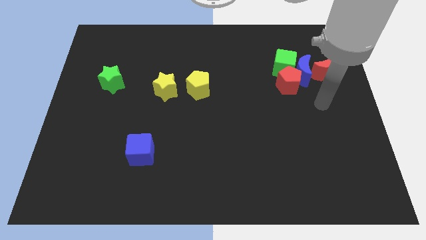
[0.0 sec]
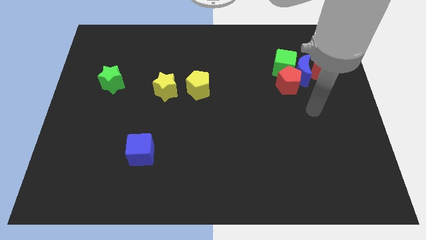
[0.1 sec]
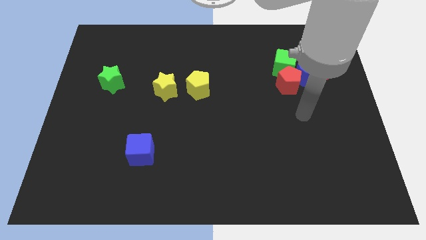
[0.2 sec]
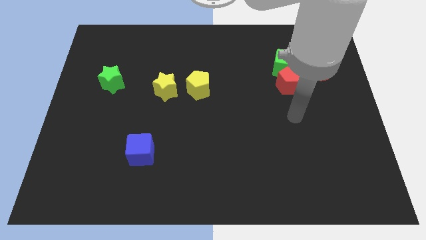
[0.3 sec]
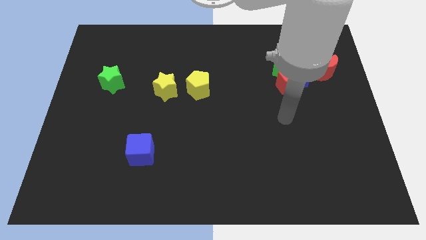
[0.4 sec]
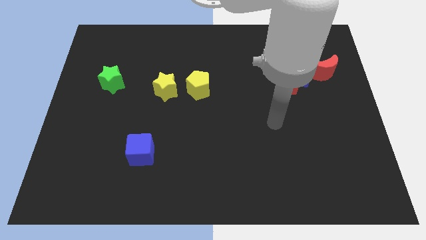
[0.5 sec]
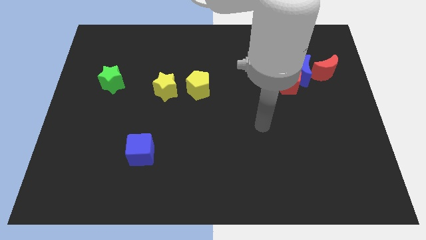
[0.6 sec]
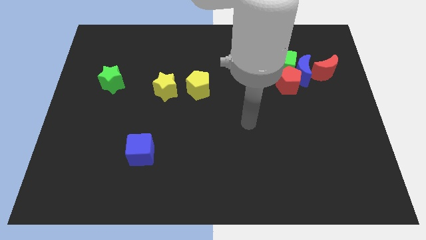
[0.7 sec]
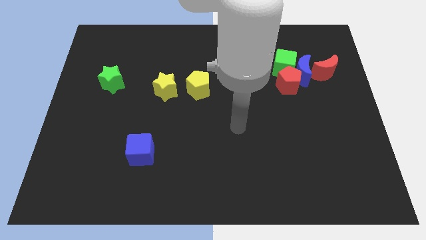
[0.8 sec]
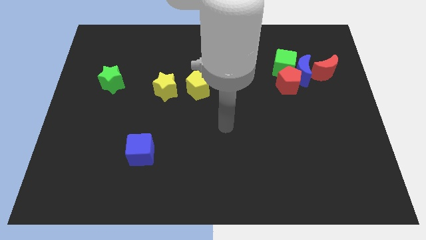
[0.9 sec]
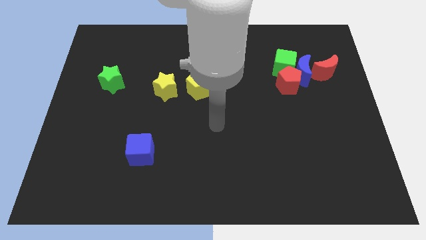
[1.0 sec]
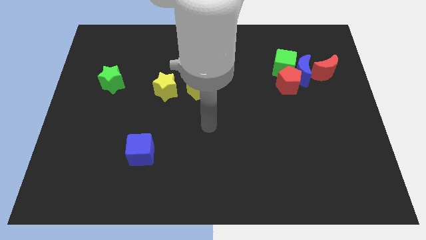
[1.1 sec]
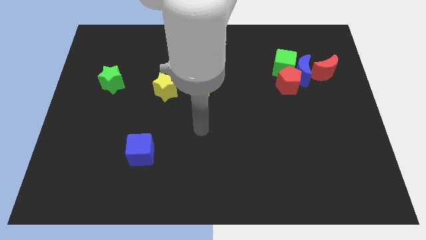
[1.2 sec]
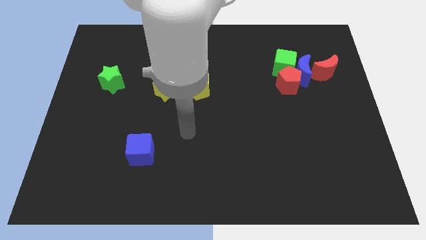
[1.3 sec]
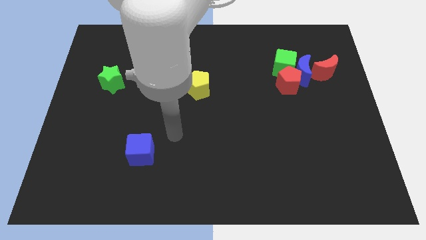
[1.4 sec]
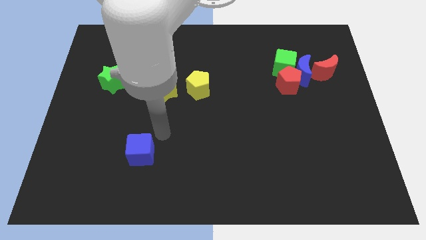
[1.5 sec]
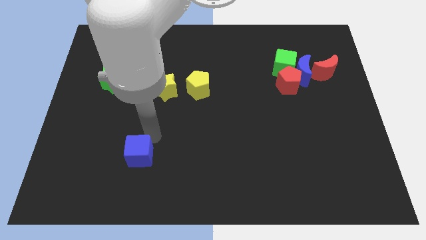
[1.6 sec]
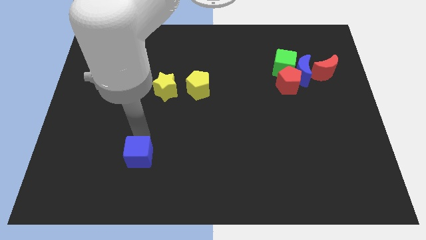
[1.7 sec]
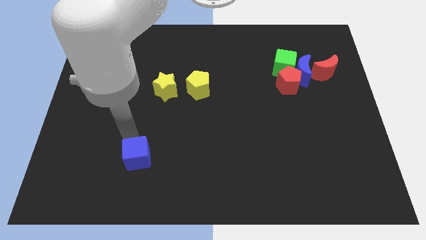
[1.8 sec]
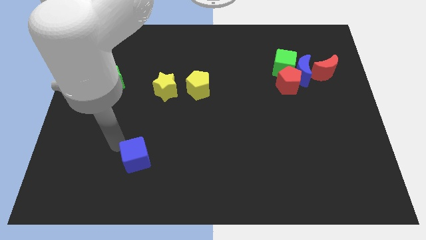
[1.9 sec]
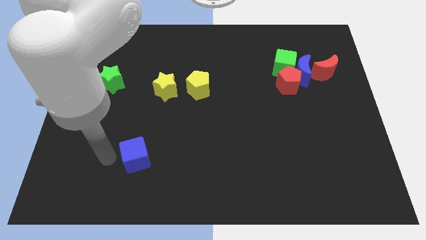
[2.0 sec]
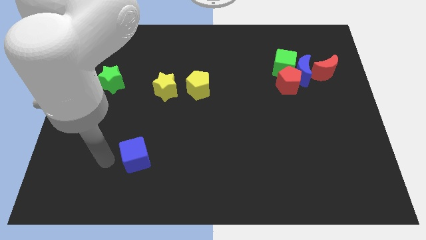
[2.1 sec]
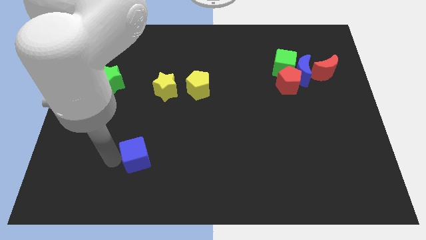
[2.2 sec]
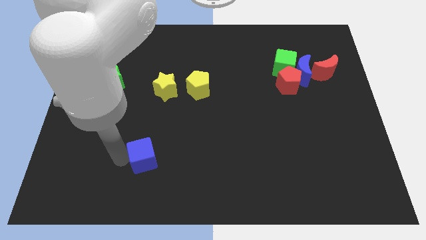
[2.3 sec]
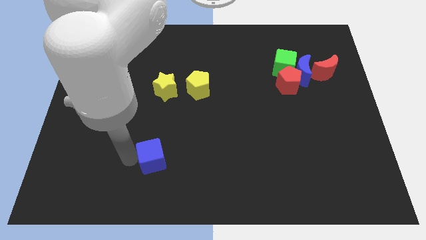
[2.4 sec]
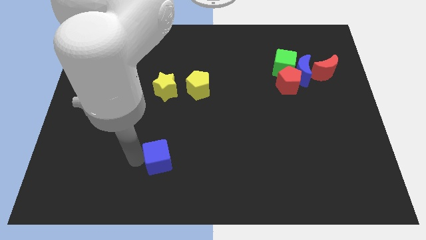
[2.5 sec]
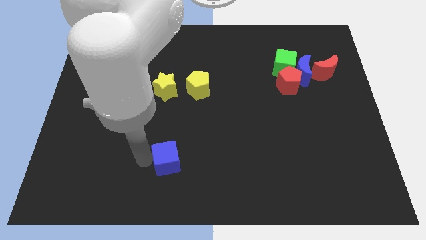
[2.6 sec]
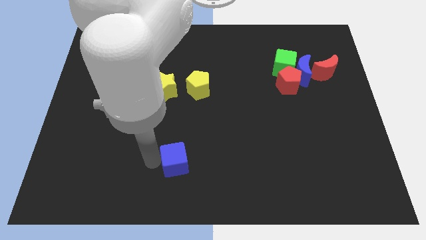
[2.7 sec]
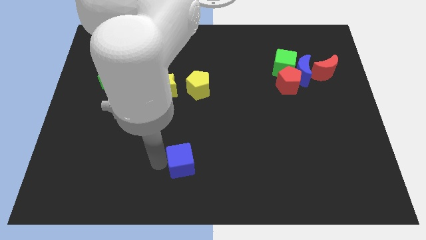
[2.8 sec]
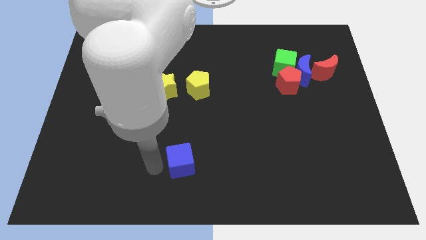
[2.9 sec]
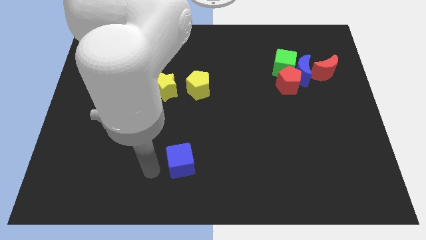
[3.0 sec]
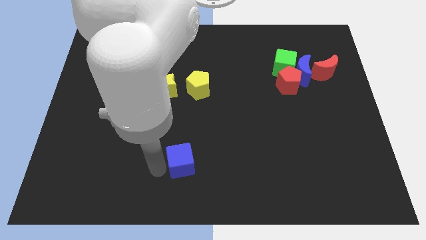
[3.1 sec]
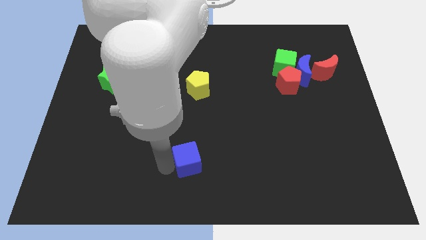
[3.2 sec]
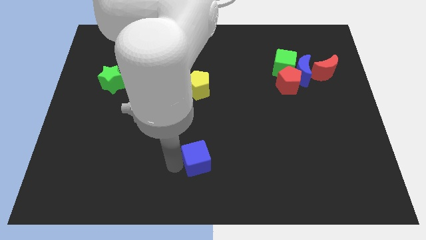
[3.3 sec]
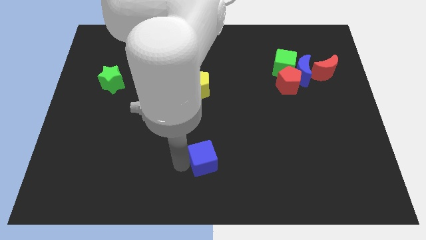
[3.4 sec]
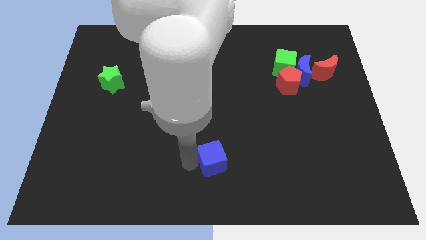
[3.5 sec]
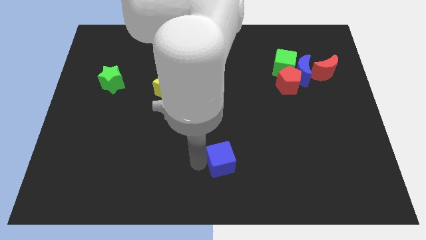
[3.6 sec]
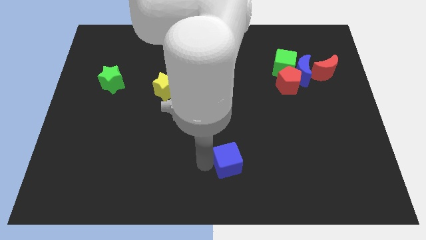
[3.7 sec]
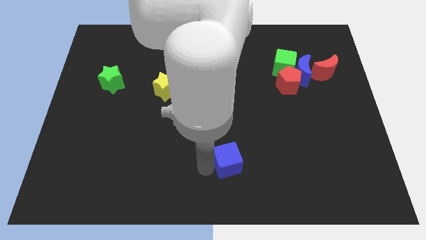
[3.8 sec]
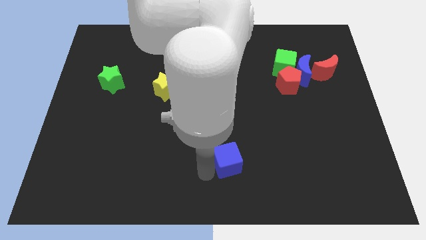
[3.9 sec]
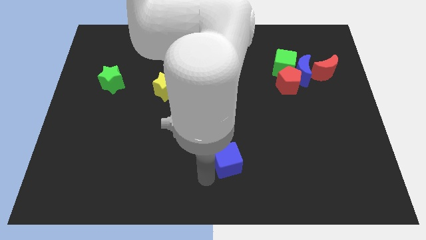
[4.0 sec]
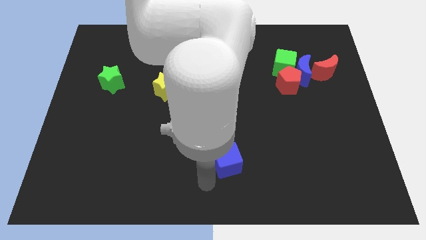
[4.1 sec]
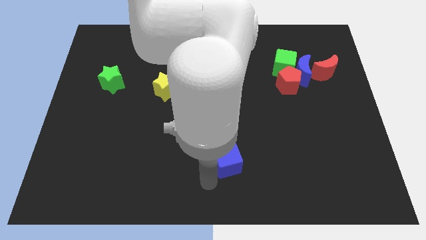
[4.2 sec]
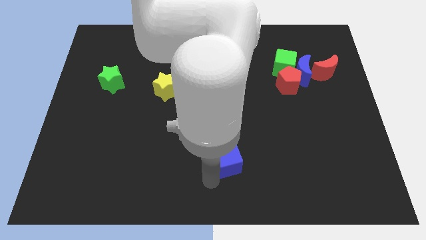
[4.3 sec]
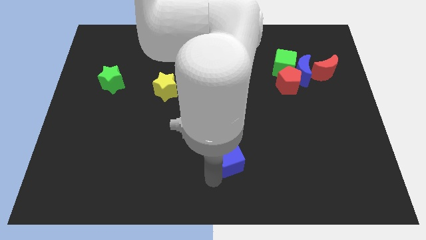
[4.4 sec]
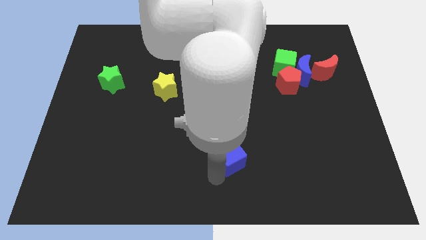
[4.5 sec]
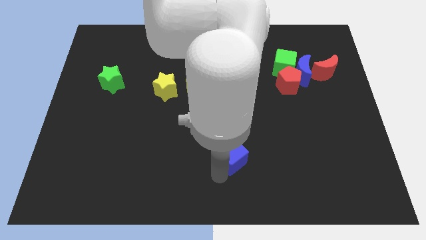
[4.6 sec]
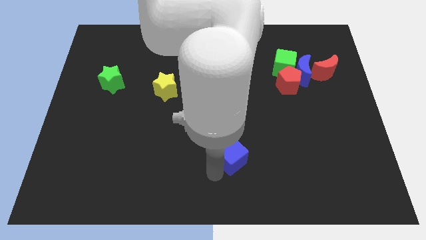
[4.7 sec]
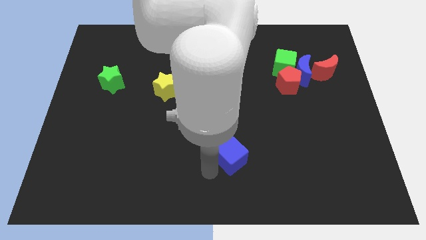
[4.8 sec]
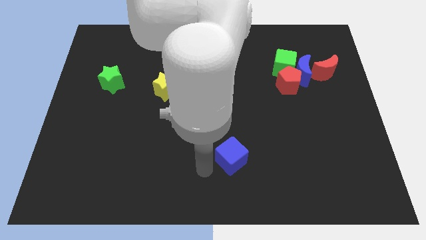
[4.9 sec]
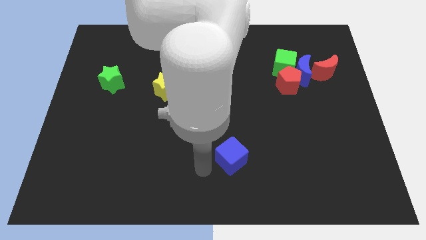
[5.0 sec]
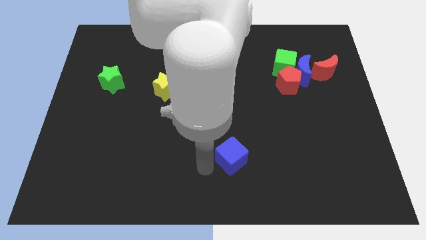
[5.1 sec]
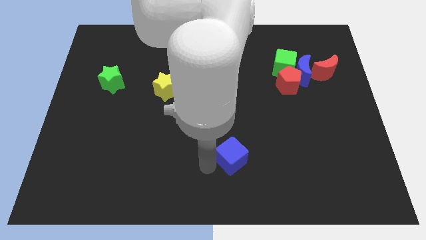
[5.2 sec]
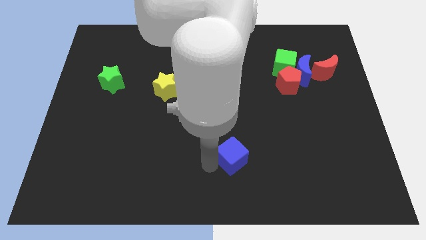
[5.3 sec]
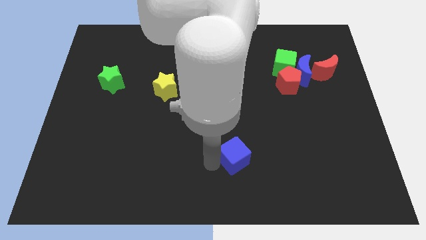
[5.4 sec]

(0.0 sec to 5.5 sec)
slide the blue cube right

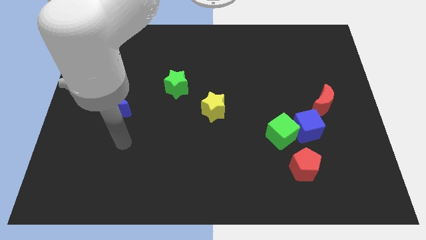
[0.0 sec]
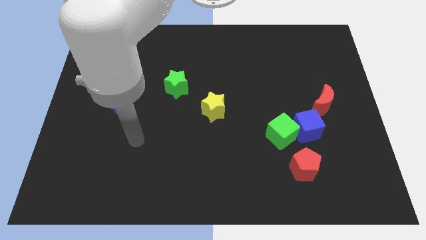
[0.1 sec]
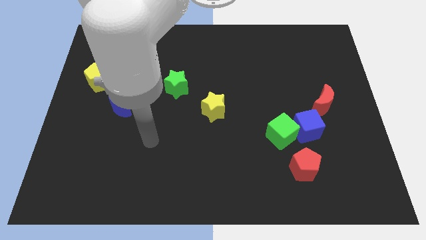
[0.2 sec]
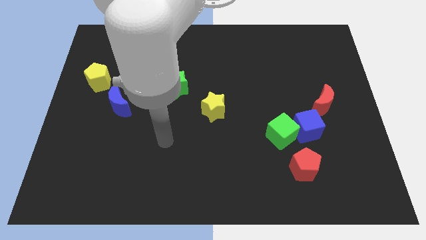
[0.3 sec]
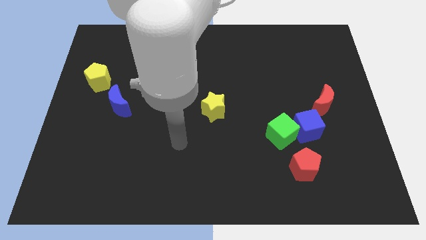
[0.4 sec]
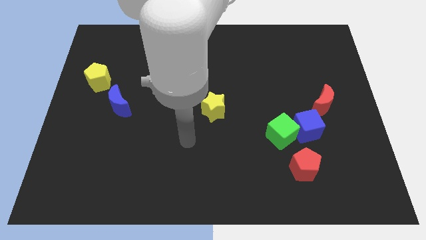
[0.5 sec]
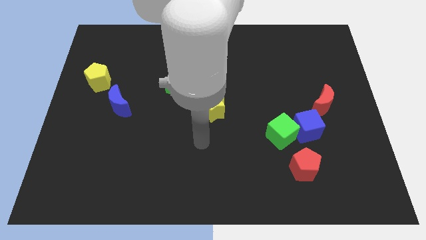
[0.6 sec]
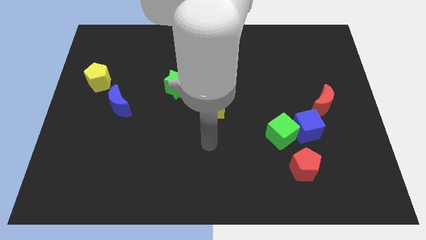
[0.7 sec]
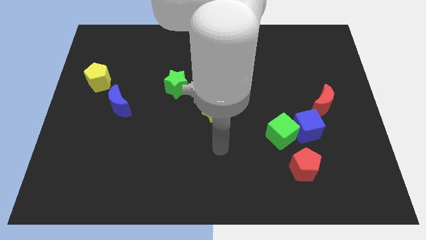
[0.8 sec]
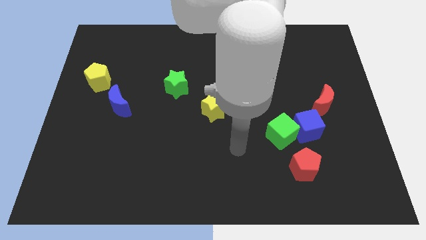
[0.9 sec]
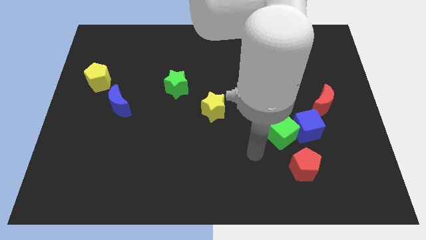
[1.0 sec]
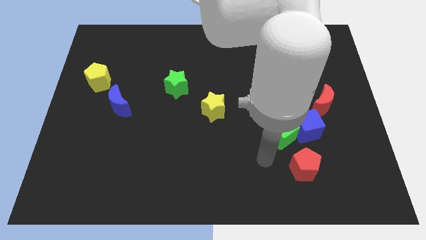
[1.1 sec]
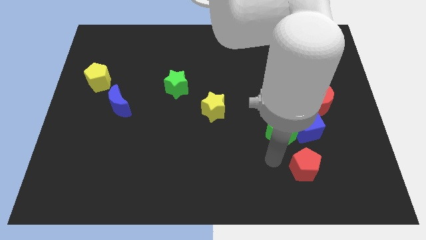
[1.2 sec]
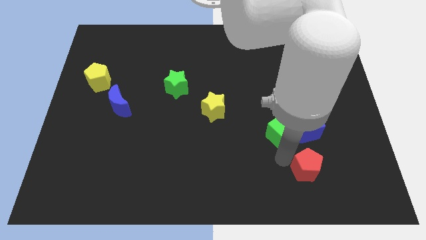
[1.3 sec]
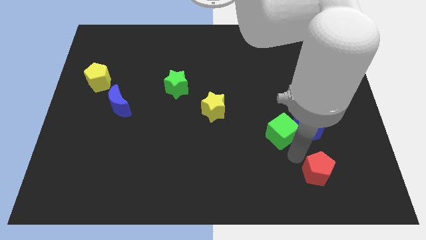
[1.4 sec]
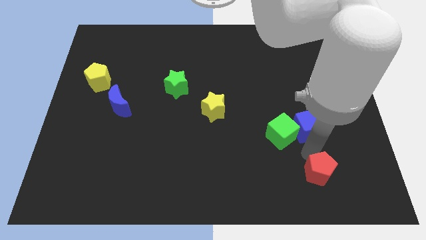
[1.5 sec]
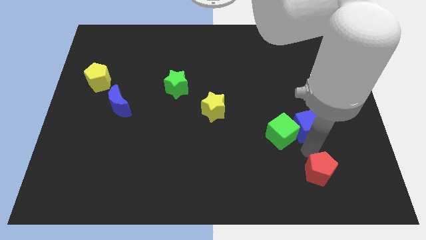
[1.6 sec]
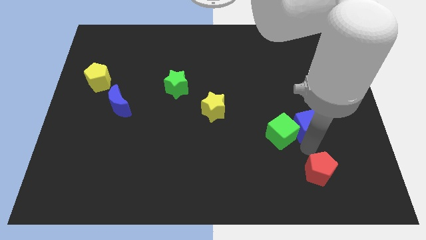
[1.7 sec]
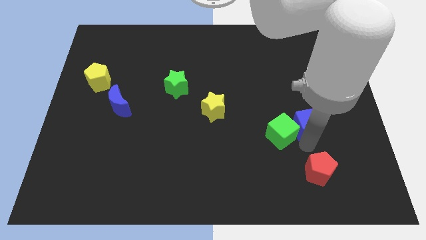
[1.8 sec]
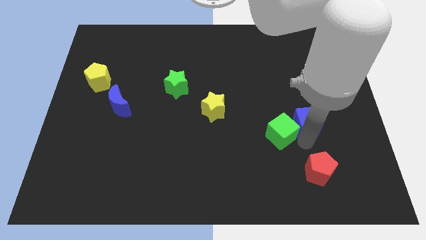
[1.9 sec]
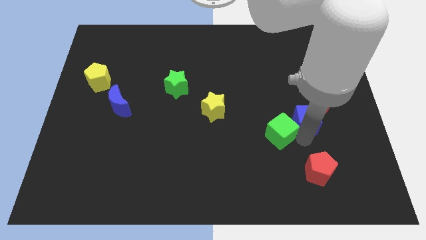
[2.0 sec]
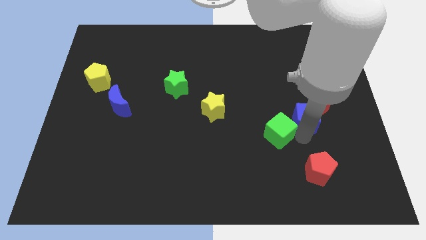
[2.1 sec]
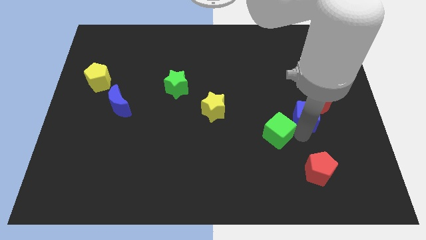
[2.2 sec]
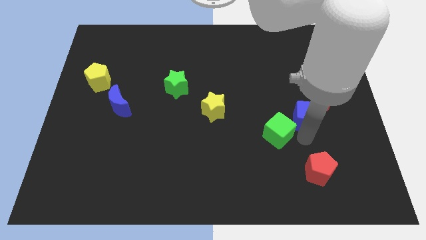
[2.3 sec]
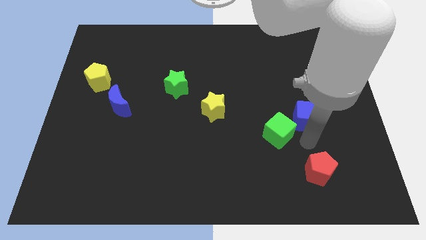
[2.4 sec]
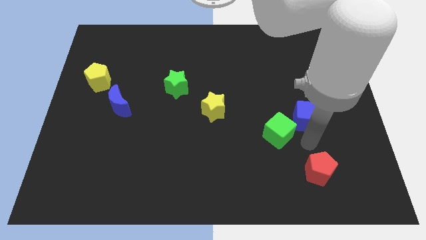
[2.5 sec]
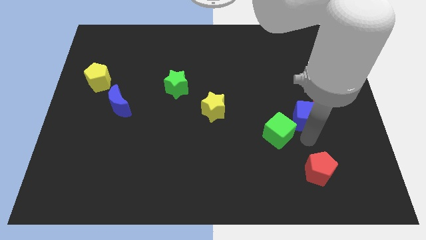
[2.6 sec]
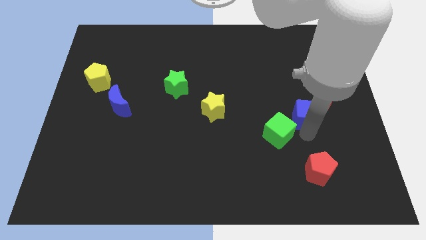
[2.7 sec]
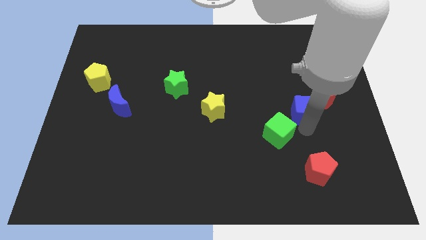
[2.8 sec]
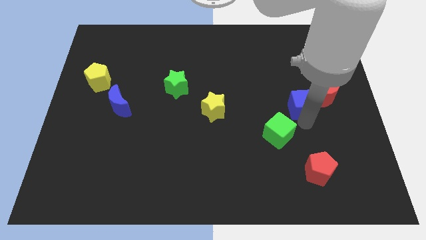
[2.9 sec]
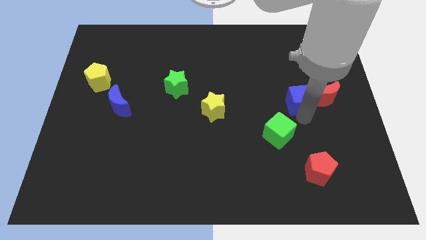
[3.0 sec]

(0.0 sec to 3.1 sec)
slide the blue cube somewhat up

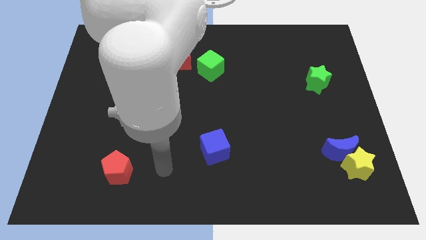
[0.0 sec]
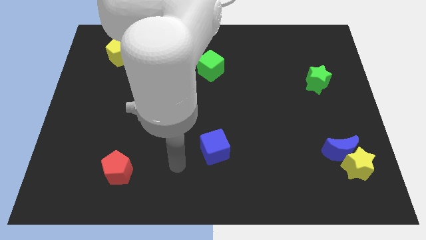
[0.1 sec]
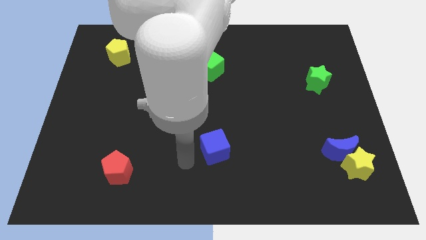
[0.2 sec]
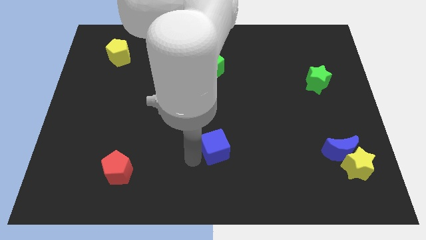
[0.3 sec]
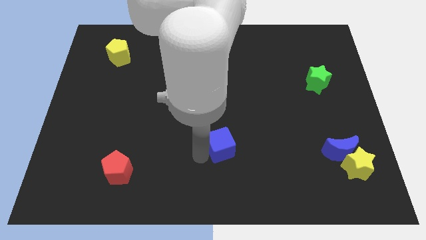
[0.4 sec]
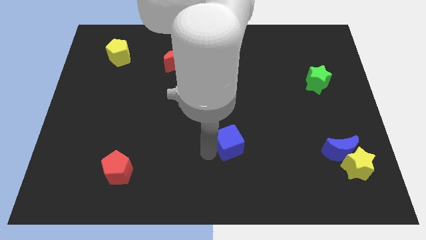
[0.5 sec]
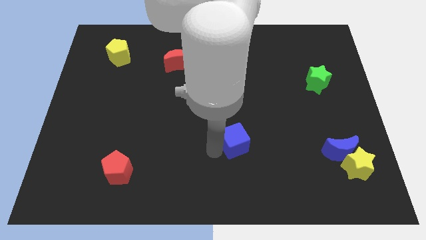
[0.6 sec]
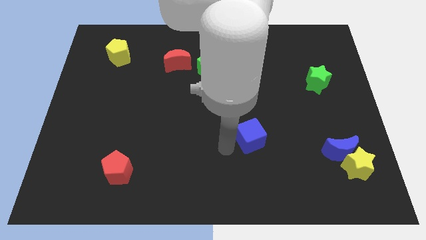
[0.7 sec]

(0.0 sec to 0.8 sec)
slightly push the blue cube upwards and then right
